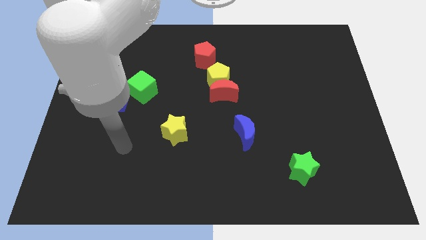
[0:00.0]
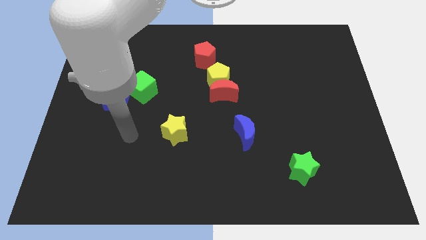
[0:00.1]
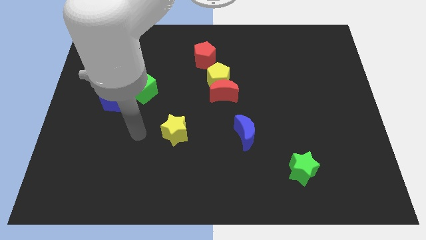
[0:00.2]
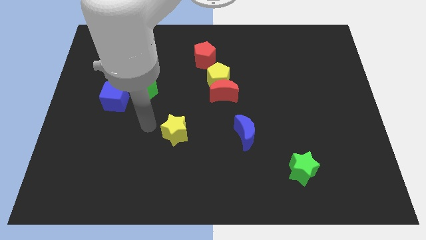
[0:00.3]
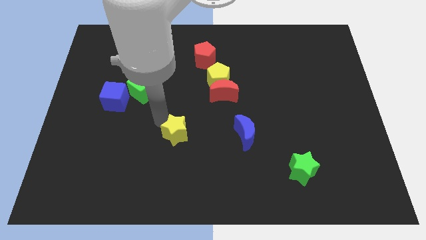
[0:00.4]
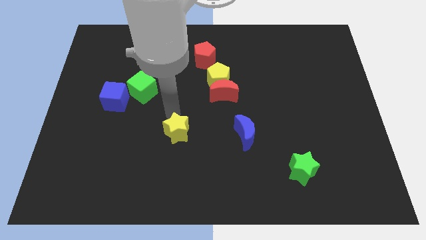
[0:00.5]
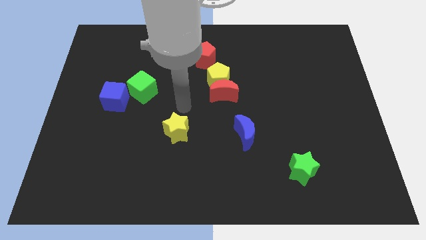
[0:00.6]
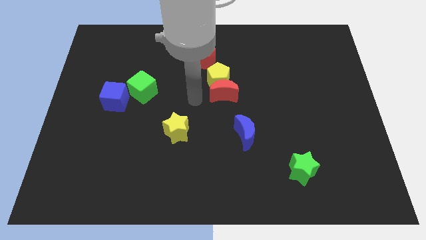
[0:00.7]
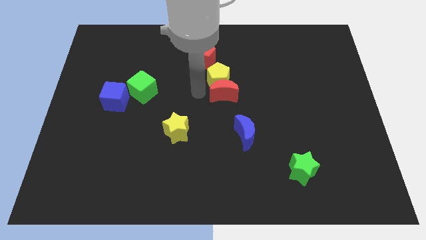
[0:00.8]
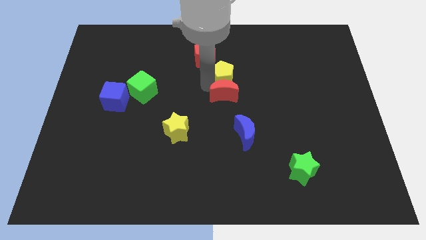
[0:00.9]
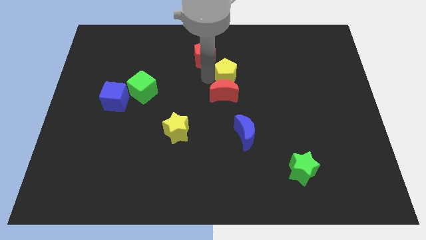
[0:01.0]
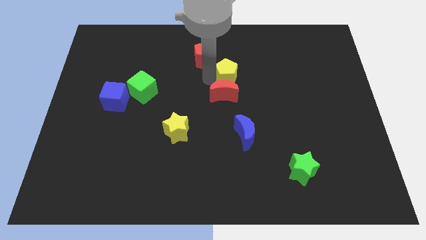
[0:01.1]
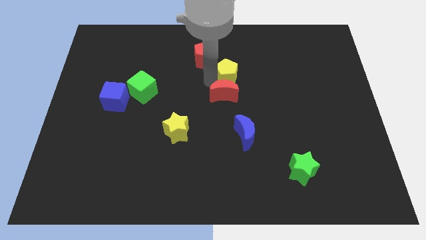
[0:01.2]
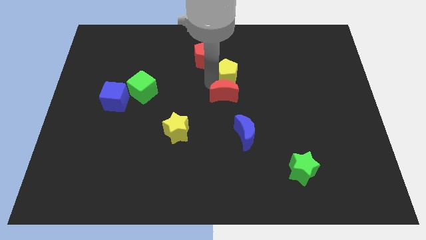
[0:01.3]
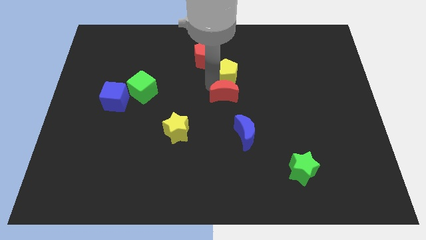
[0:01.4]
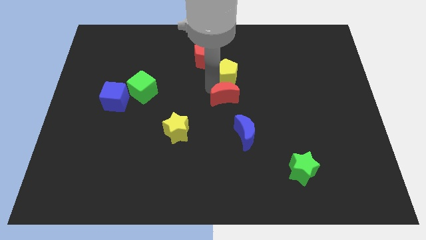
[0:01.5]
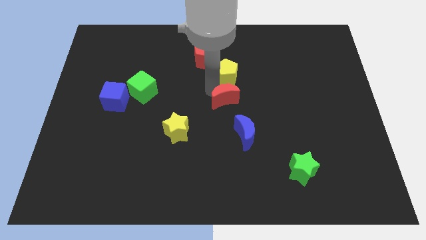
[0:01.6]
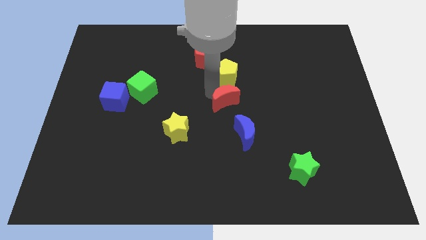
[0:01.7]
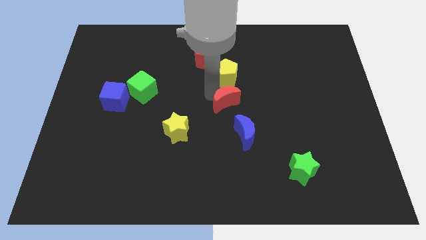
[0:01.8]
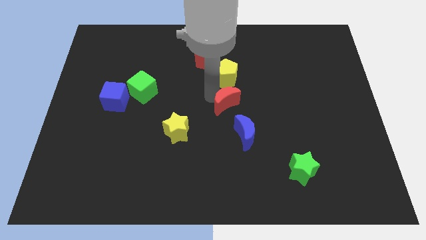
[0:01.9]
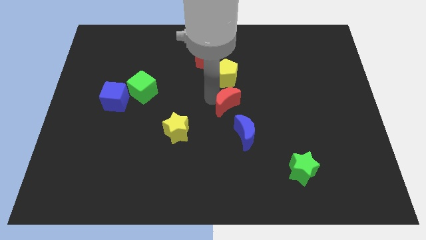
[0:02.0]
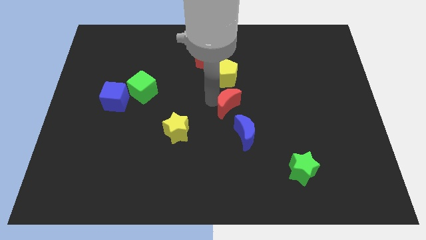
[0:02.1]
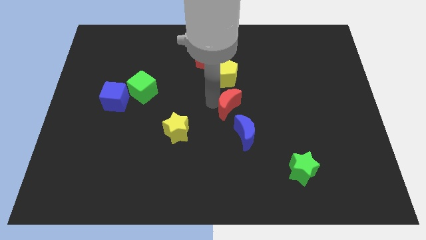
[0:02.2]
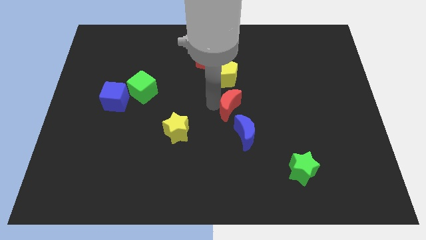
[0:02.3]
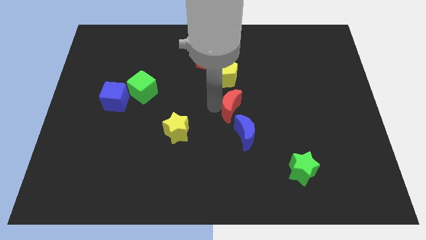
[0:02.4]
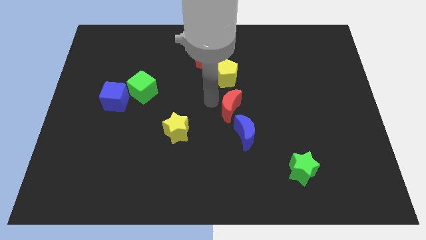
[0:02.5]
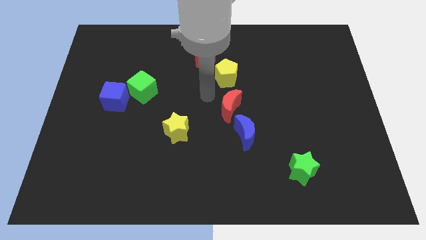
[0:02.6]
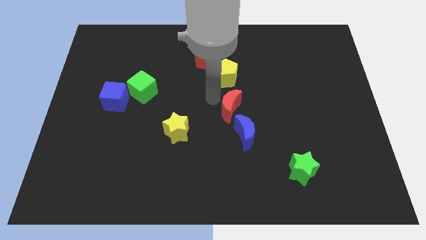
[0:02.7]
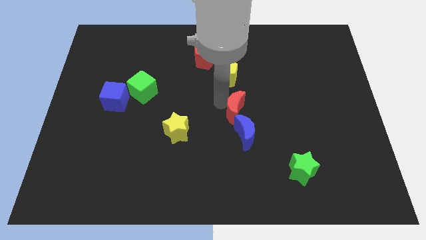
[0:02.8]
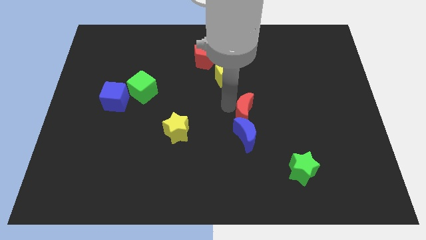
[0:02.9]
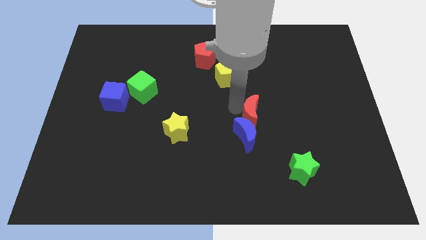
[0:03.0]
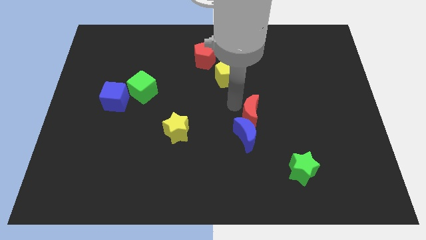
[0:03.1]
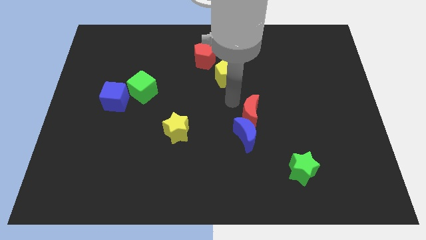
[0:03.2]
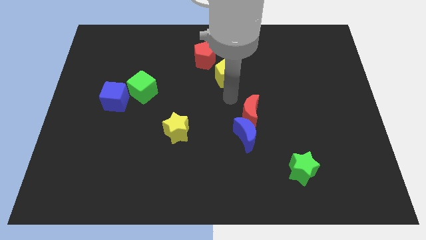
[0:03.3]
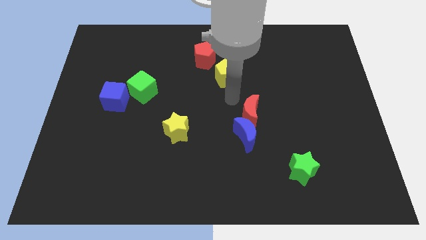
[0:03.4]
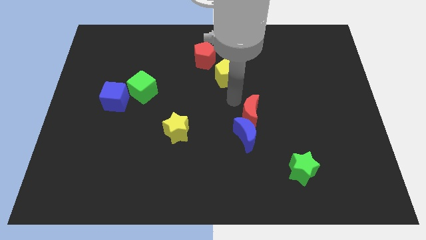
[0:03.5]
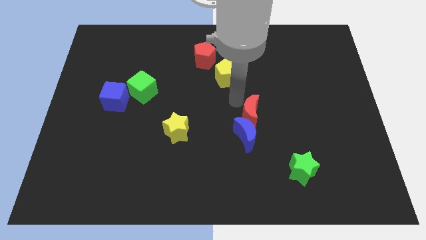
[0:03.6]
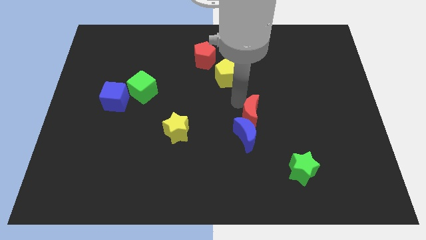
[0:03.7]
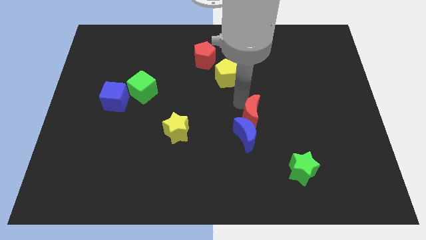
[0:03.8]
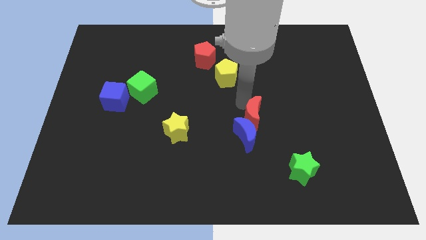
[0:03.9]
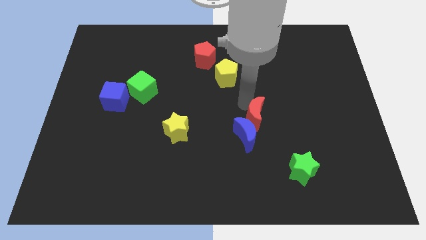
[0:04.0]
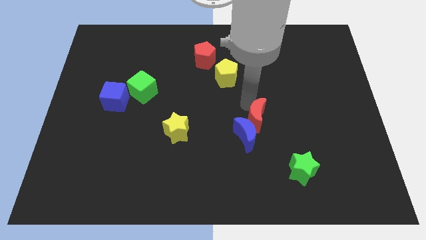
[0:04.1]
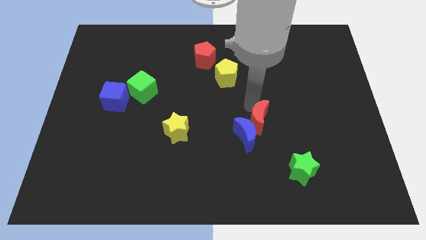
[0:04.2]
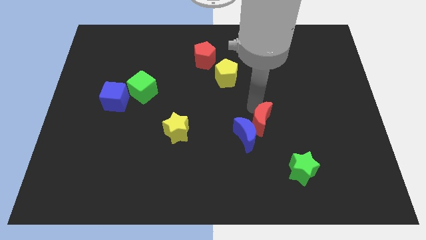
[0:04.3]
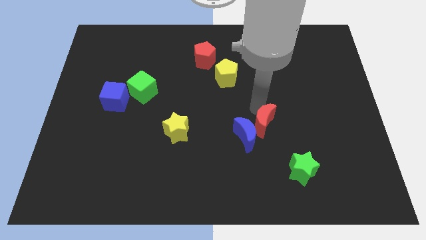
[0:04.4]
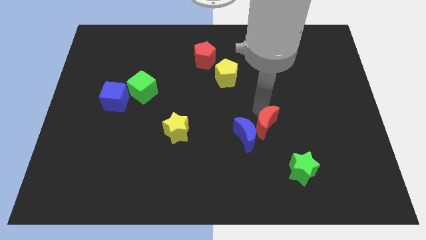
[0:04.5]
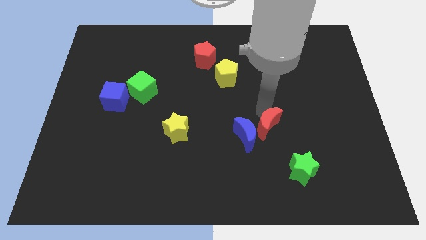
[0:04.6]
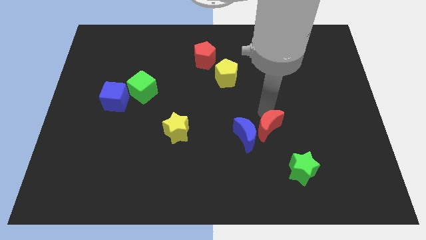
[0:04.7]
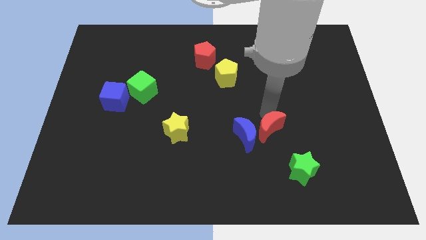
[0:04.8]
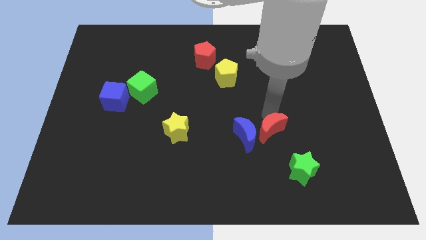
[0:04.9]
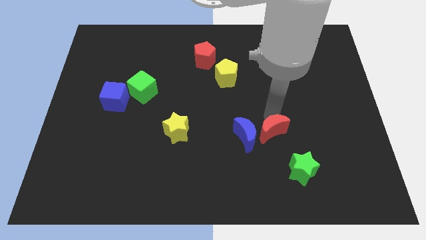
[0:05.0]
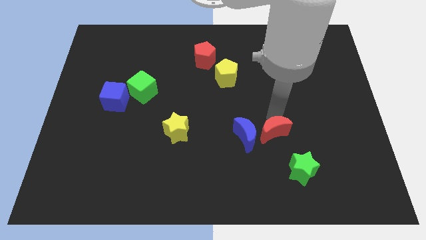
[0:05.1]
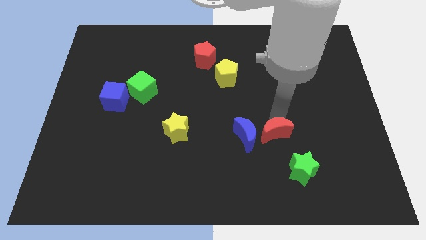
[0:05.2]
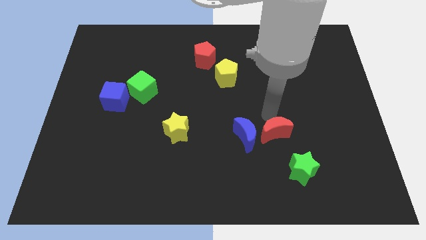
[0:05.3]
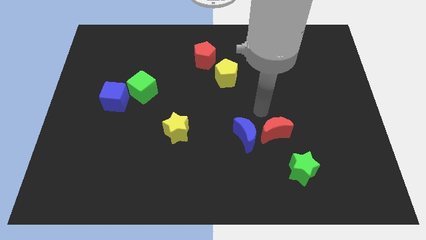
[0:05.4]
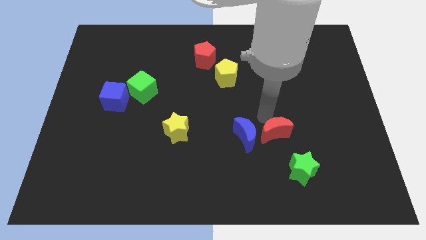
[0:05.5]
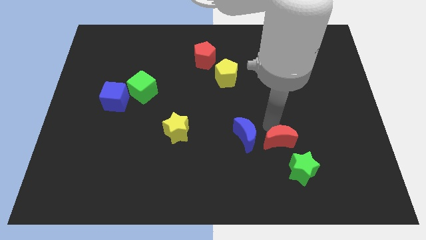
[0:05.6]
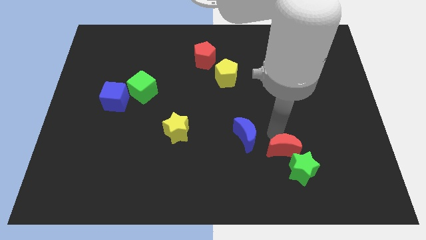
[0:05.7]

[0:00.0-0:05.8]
push the red moon towards the green star

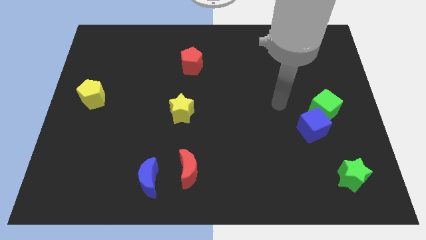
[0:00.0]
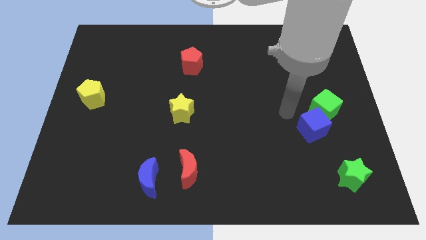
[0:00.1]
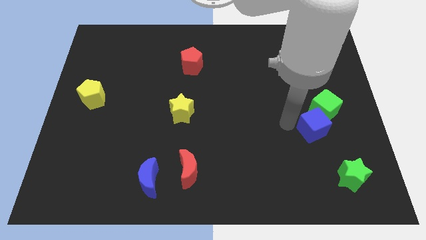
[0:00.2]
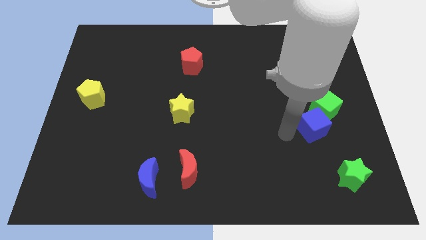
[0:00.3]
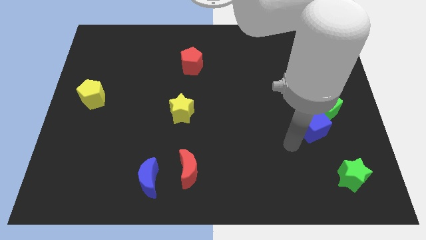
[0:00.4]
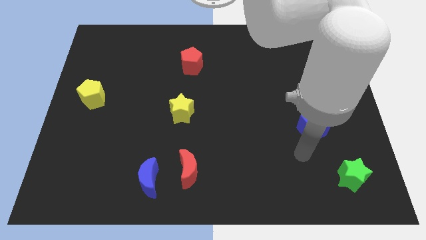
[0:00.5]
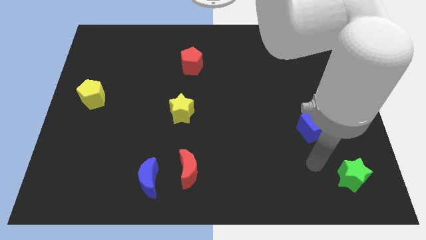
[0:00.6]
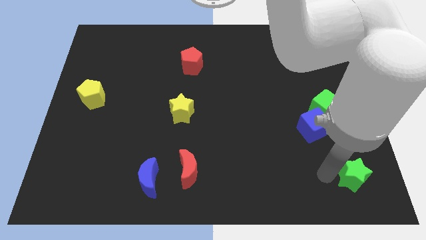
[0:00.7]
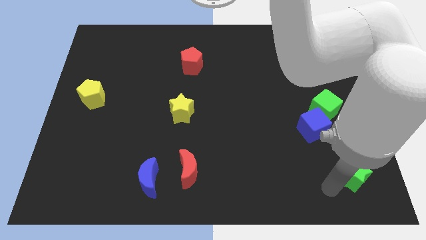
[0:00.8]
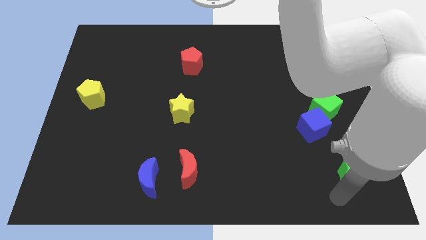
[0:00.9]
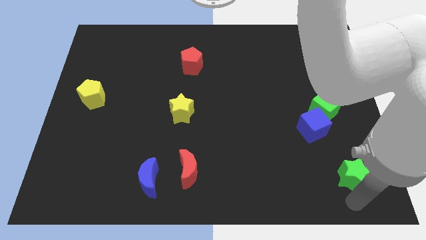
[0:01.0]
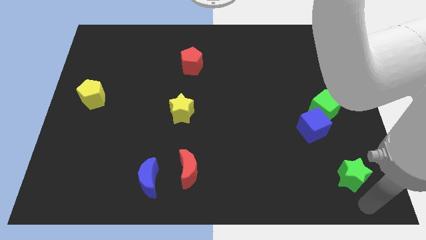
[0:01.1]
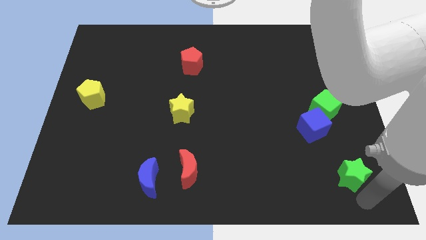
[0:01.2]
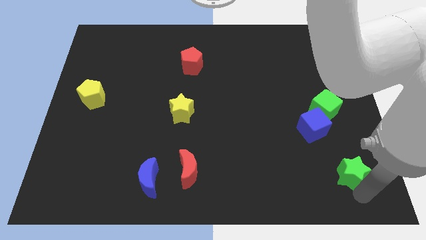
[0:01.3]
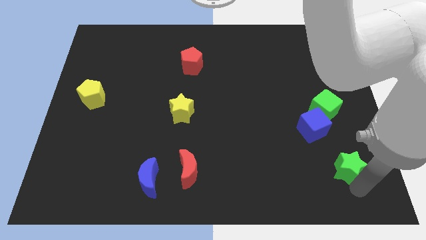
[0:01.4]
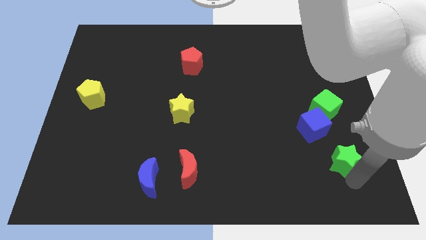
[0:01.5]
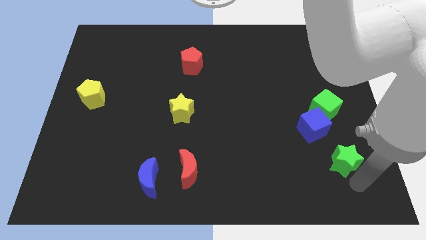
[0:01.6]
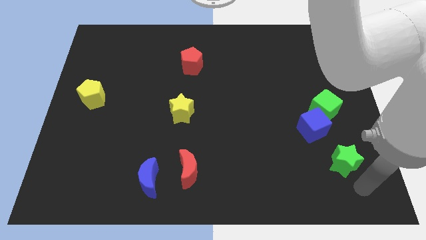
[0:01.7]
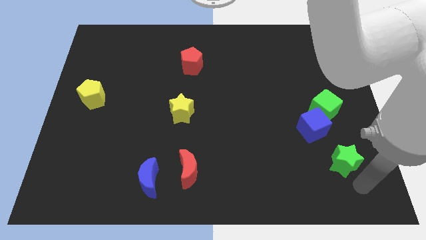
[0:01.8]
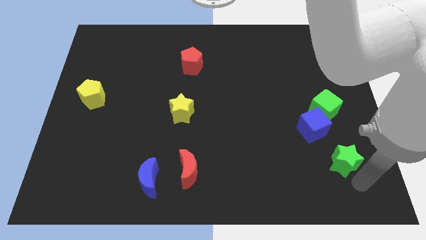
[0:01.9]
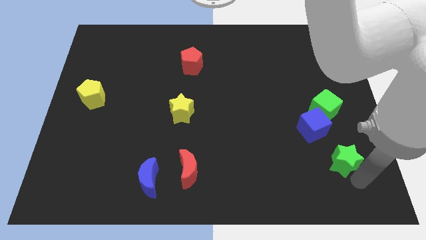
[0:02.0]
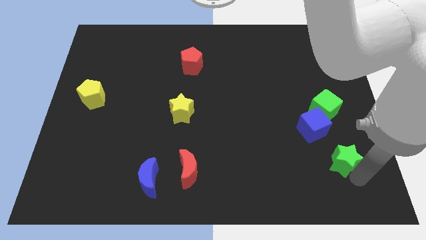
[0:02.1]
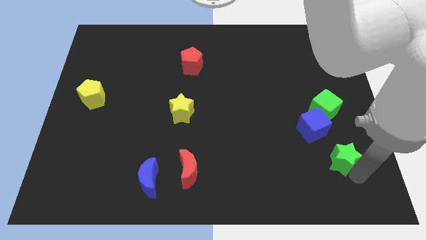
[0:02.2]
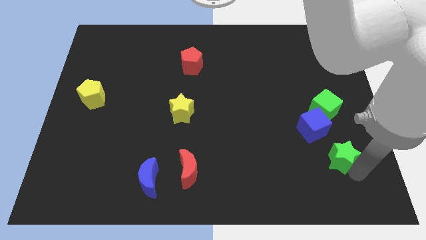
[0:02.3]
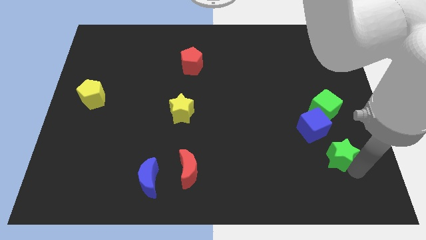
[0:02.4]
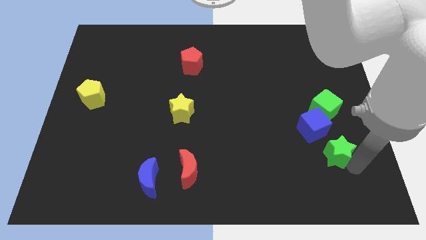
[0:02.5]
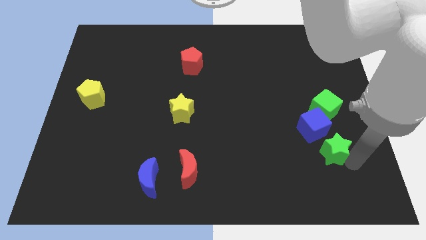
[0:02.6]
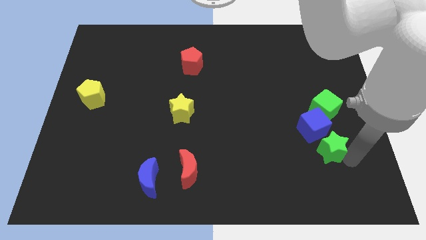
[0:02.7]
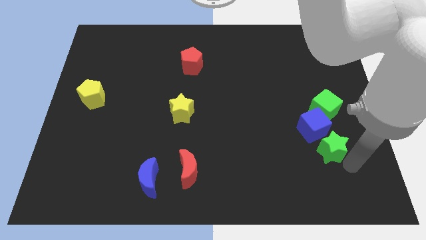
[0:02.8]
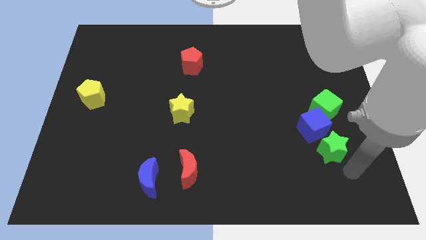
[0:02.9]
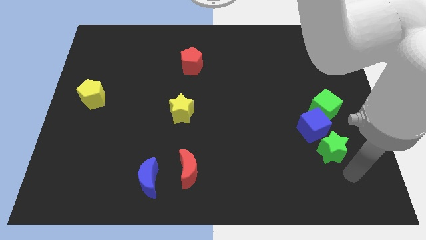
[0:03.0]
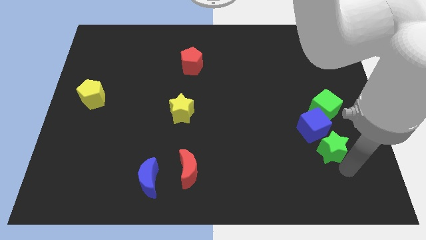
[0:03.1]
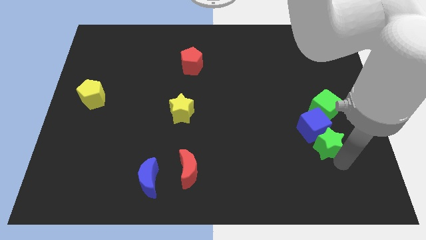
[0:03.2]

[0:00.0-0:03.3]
move the green star close to the blue cube
